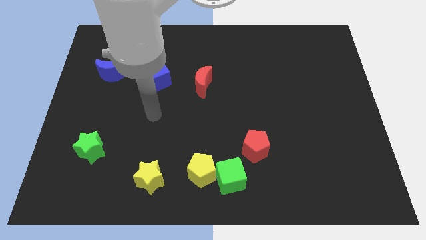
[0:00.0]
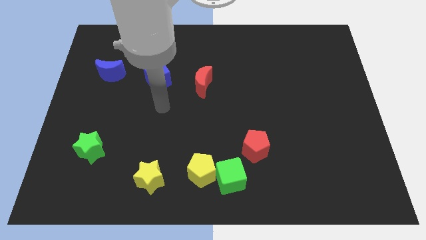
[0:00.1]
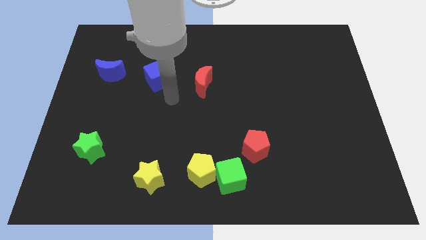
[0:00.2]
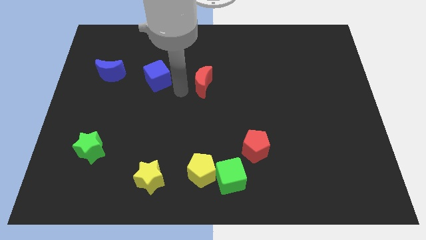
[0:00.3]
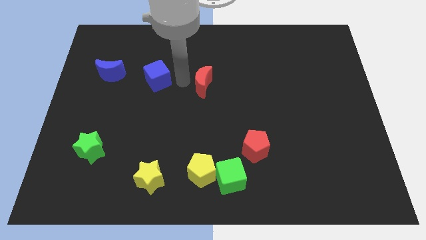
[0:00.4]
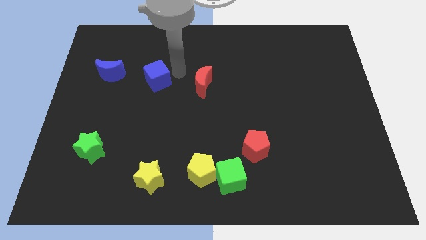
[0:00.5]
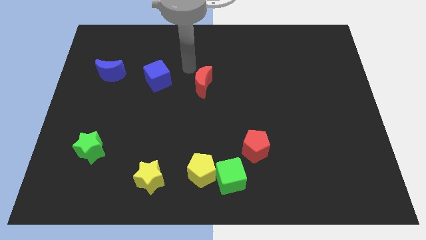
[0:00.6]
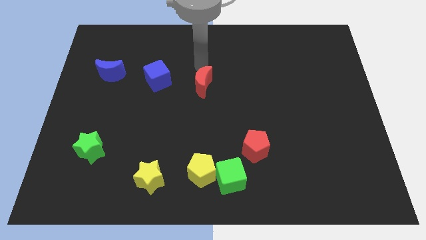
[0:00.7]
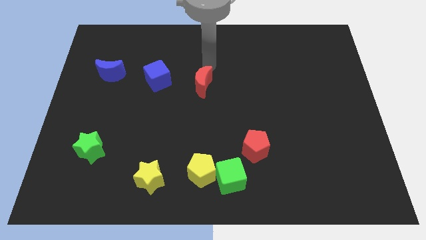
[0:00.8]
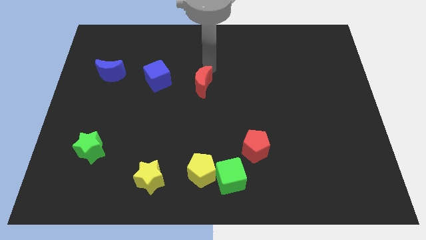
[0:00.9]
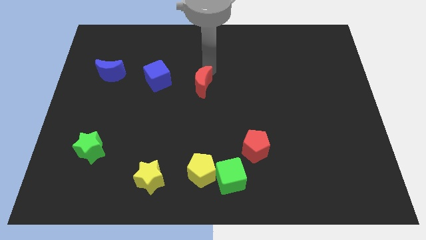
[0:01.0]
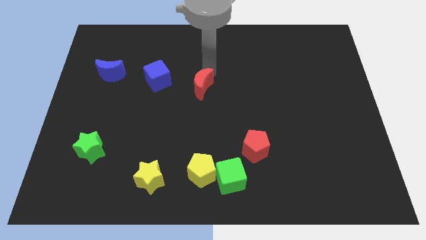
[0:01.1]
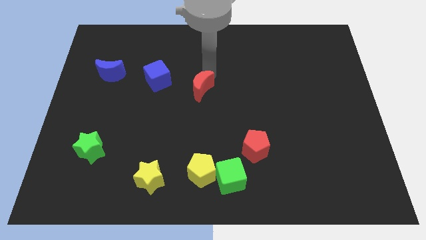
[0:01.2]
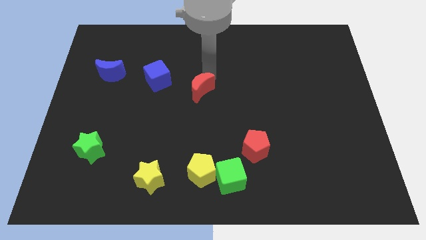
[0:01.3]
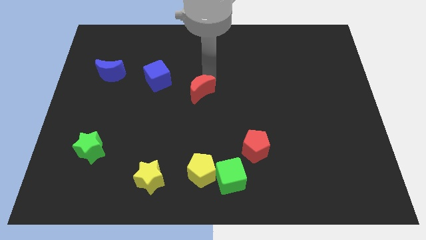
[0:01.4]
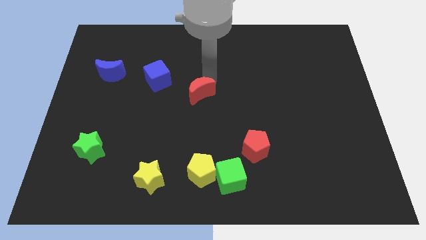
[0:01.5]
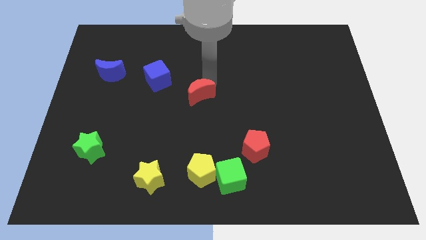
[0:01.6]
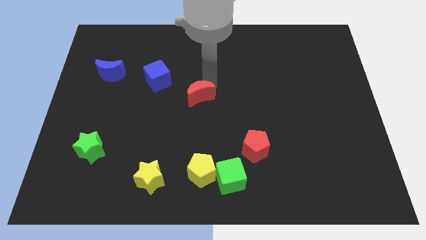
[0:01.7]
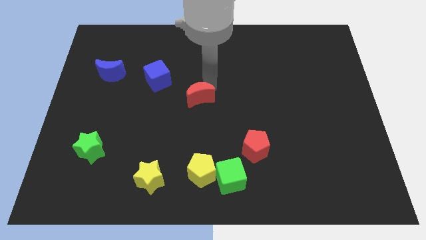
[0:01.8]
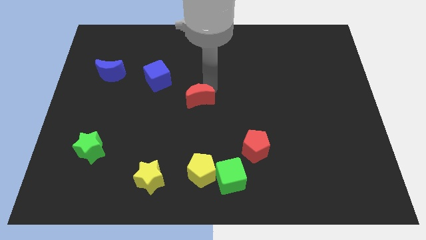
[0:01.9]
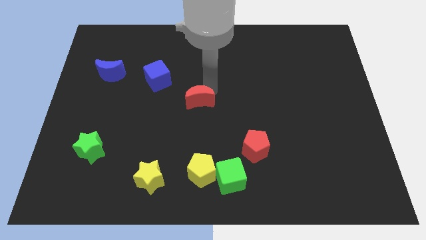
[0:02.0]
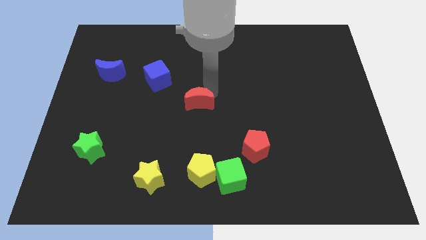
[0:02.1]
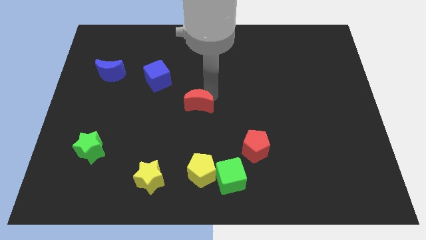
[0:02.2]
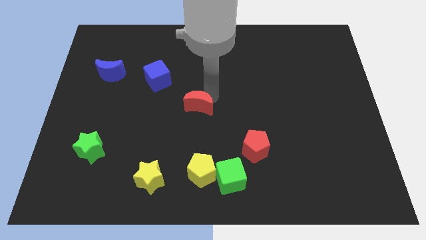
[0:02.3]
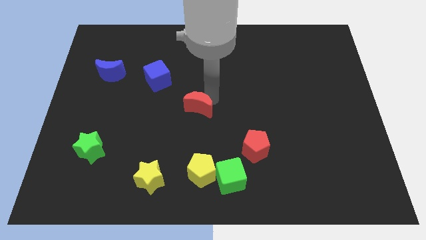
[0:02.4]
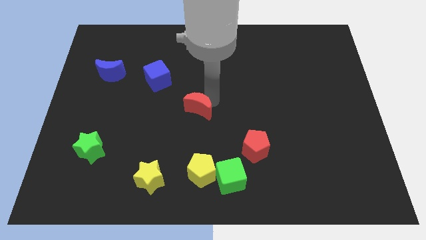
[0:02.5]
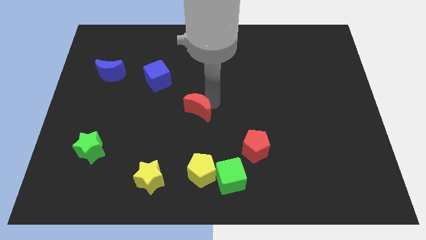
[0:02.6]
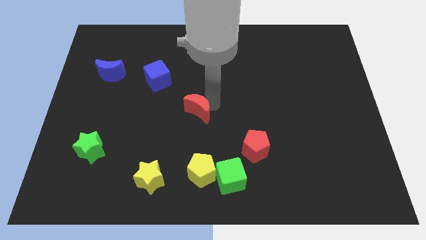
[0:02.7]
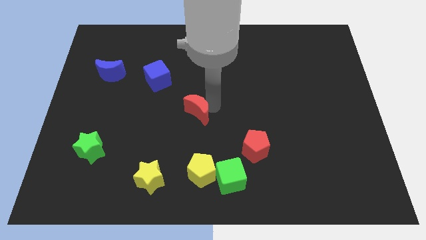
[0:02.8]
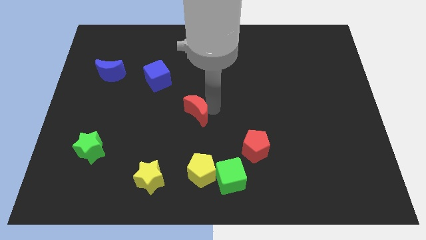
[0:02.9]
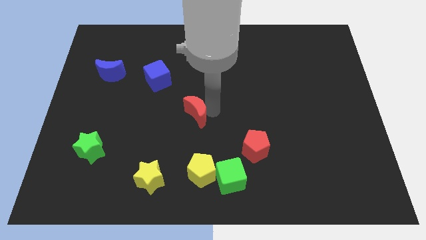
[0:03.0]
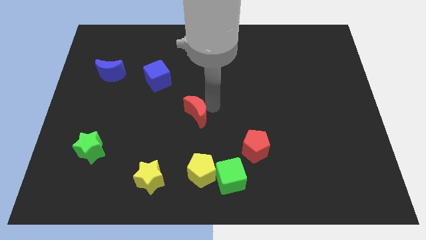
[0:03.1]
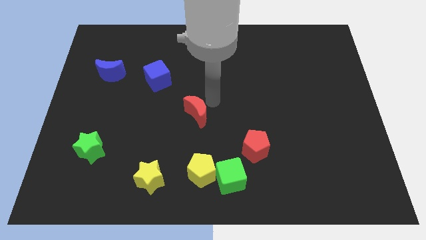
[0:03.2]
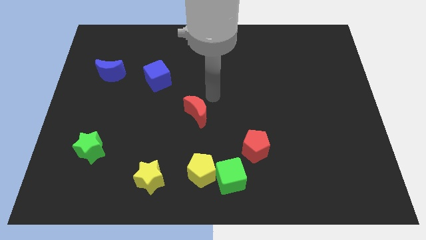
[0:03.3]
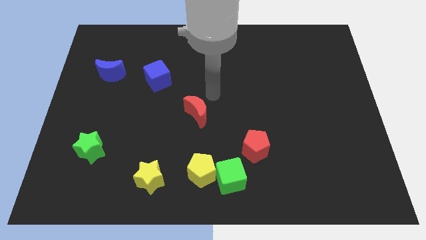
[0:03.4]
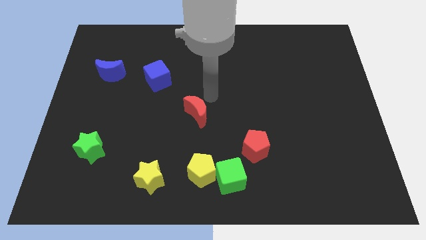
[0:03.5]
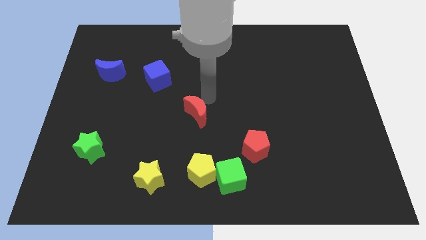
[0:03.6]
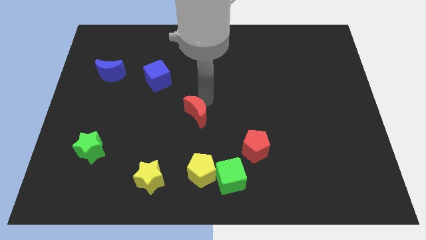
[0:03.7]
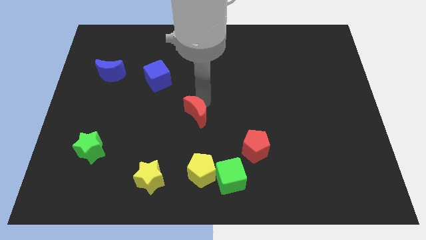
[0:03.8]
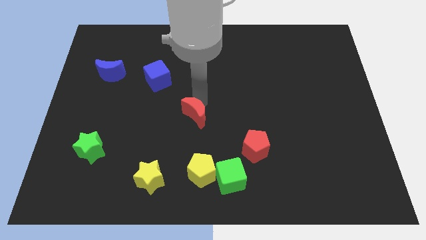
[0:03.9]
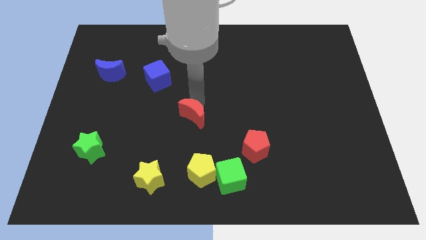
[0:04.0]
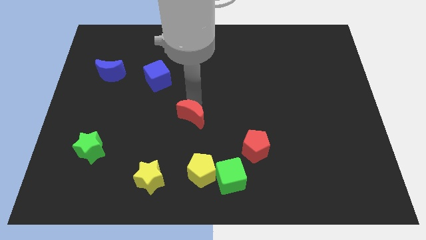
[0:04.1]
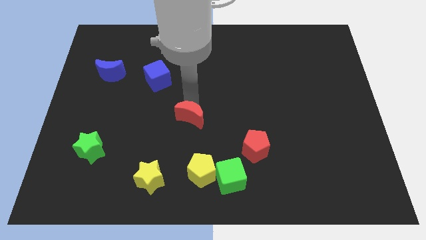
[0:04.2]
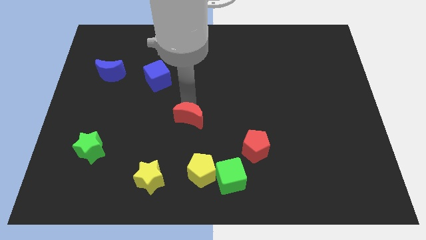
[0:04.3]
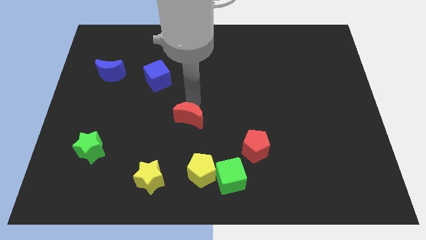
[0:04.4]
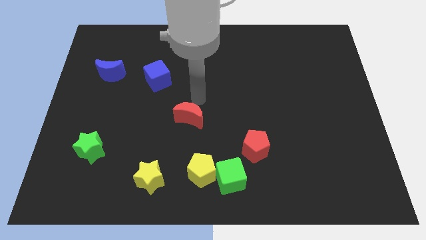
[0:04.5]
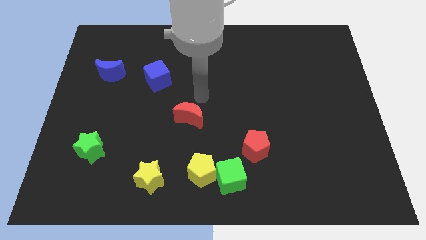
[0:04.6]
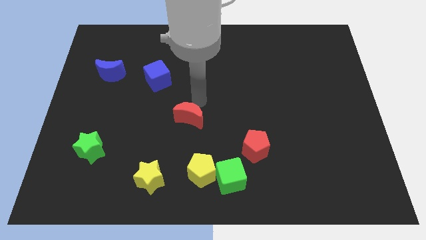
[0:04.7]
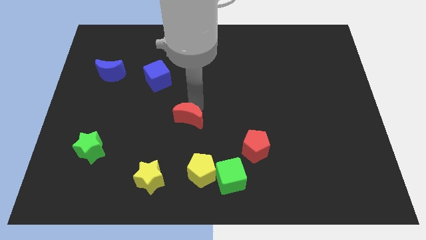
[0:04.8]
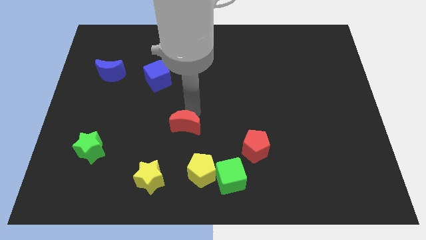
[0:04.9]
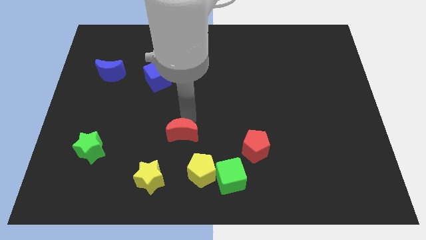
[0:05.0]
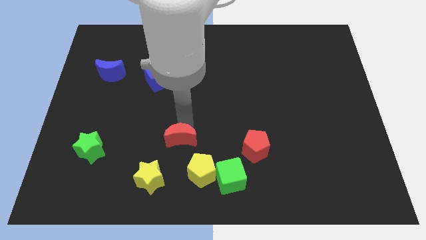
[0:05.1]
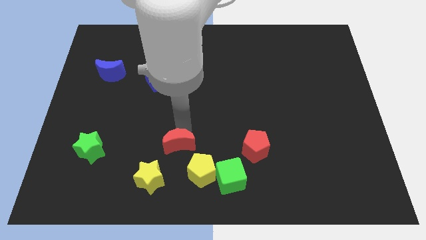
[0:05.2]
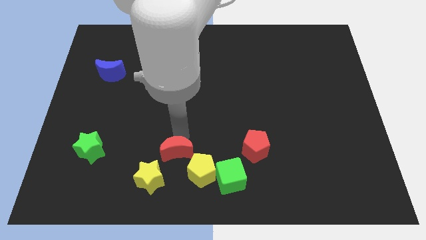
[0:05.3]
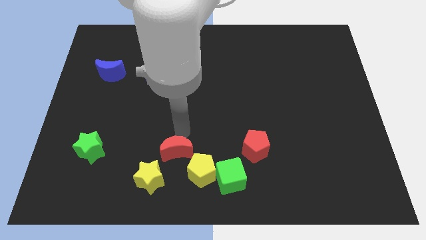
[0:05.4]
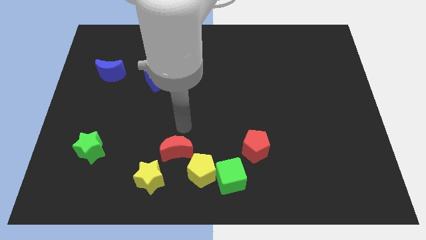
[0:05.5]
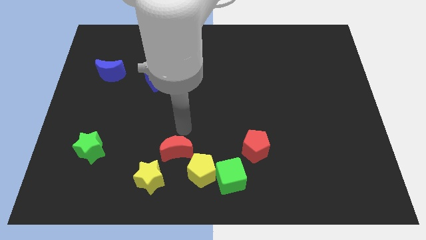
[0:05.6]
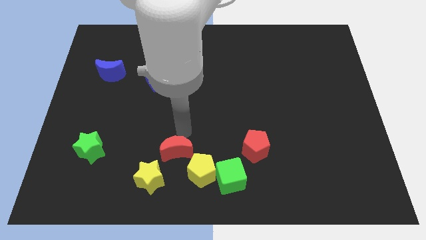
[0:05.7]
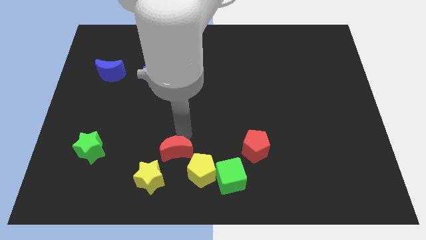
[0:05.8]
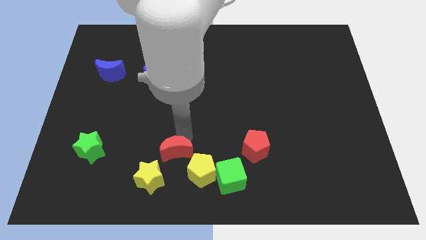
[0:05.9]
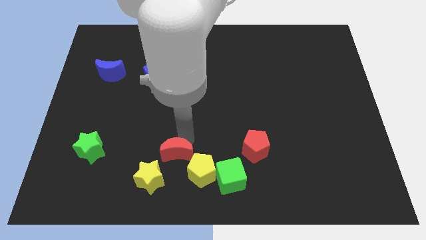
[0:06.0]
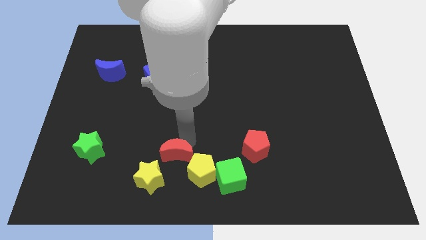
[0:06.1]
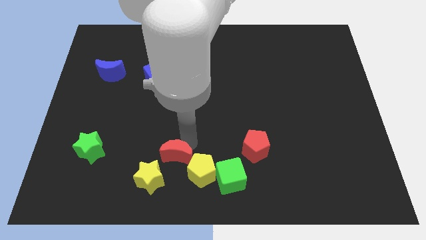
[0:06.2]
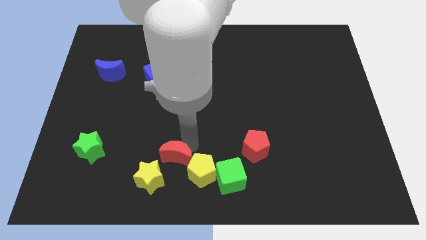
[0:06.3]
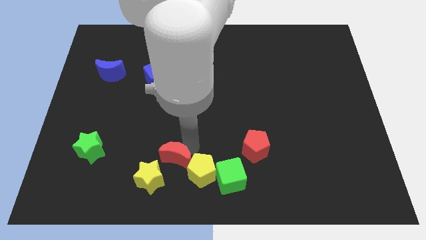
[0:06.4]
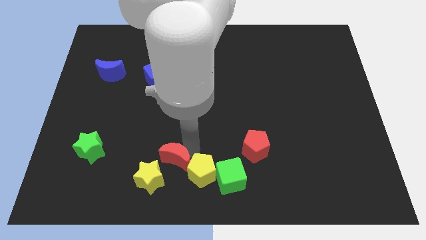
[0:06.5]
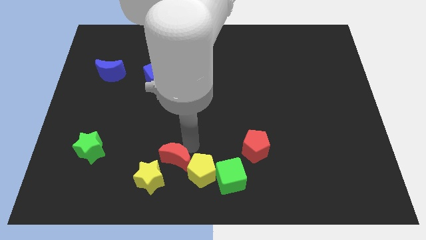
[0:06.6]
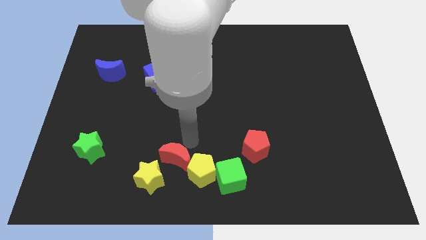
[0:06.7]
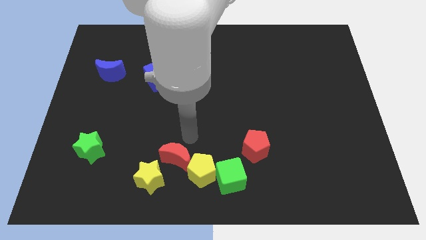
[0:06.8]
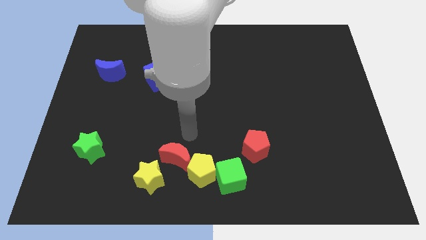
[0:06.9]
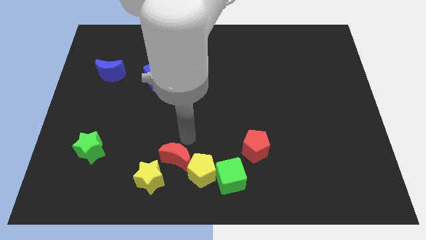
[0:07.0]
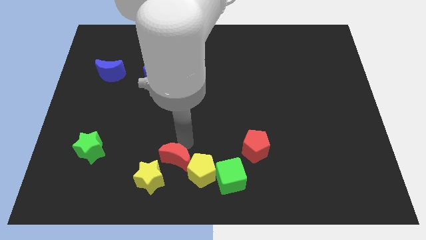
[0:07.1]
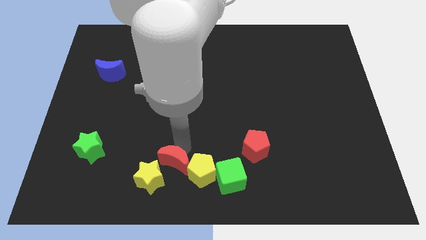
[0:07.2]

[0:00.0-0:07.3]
move the red moon to the bottom side
